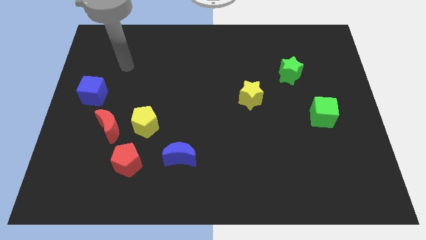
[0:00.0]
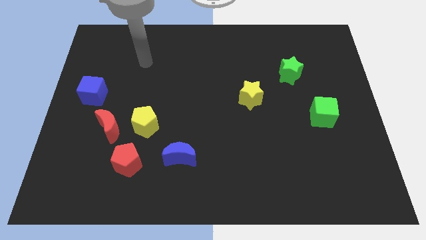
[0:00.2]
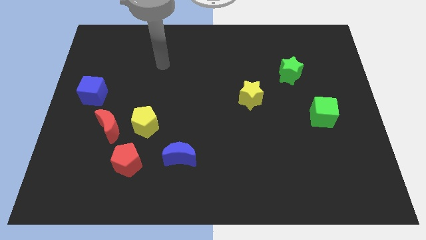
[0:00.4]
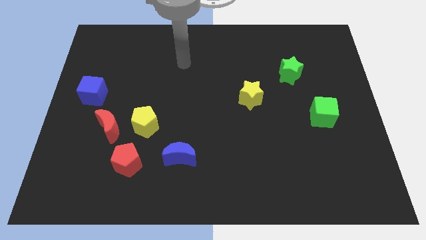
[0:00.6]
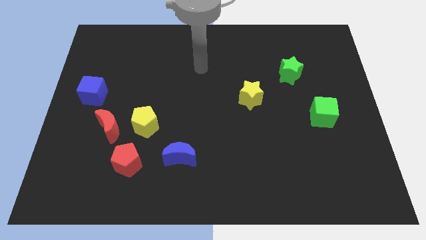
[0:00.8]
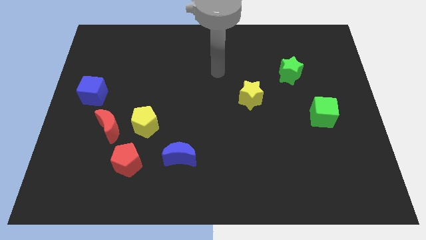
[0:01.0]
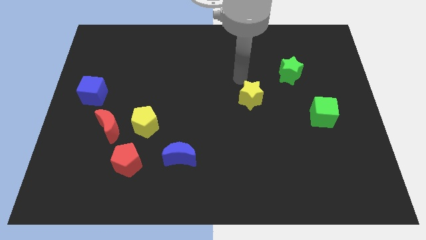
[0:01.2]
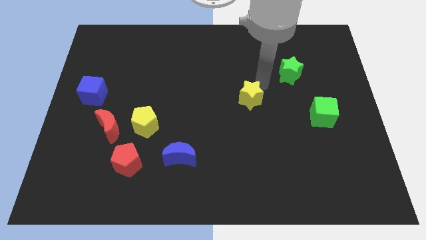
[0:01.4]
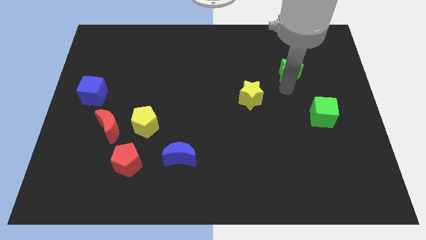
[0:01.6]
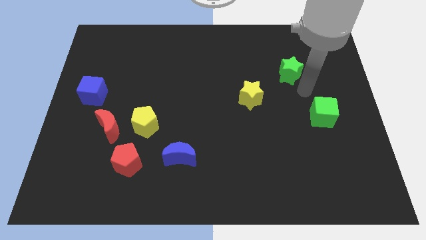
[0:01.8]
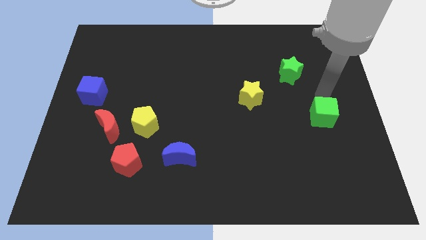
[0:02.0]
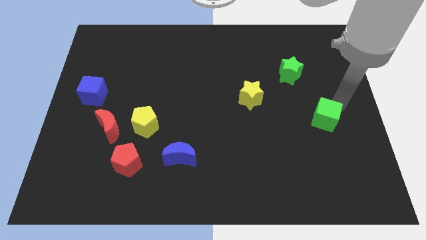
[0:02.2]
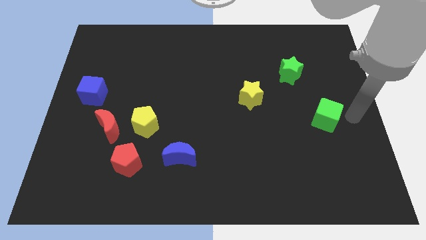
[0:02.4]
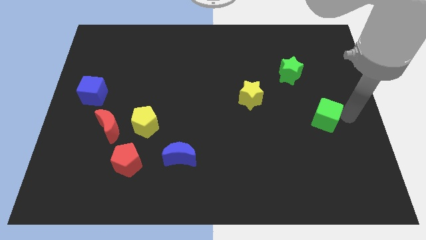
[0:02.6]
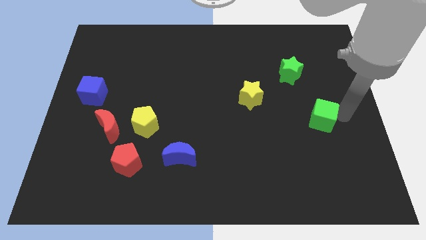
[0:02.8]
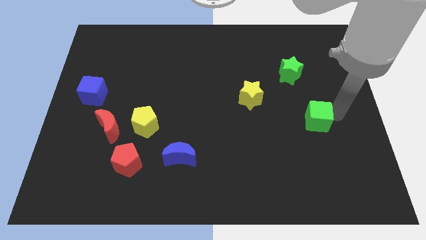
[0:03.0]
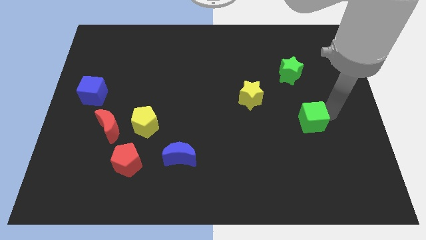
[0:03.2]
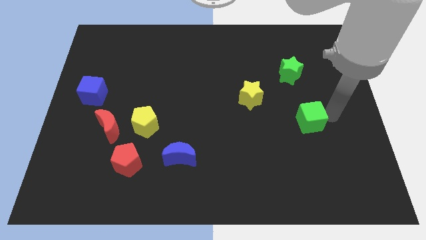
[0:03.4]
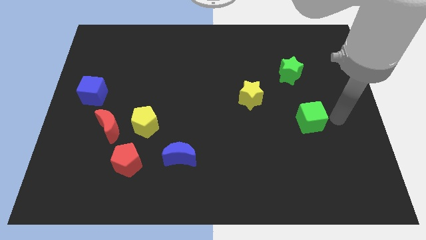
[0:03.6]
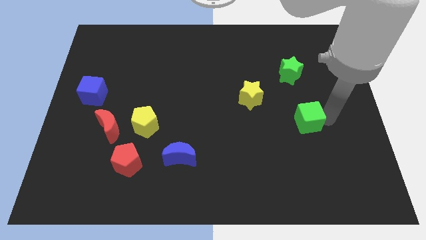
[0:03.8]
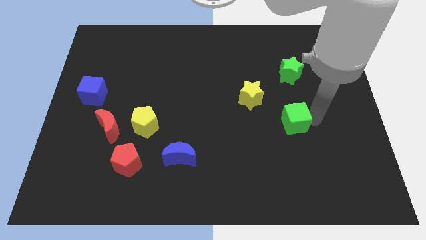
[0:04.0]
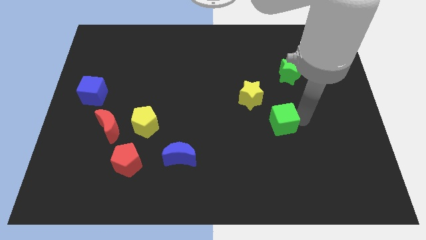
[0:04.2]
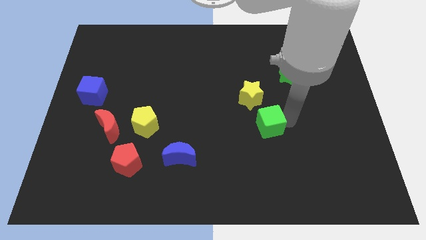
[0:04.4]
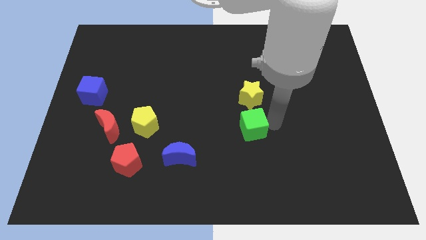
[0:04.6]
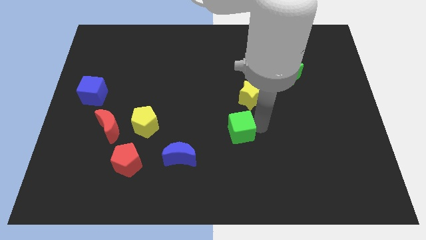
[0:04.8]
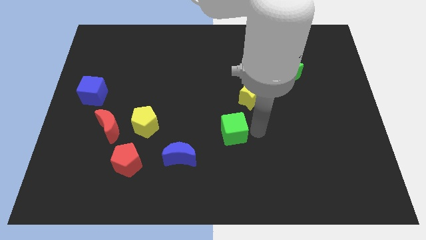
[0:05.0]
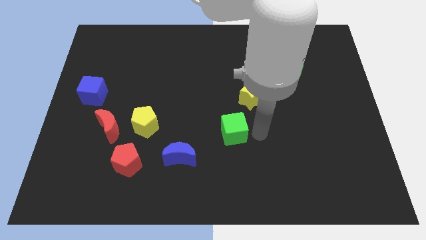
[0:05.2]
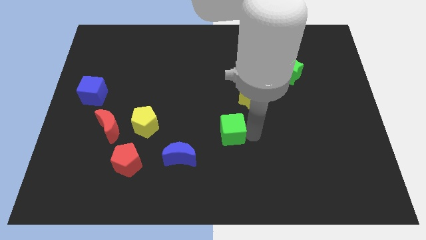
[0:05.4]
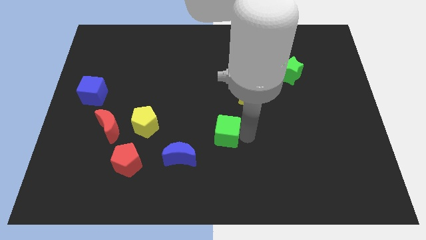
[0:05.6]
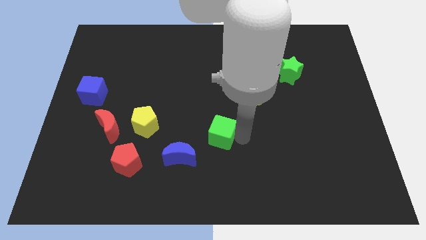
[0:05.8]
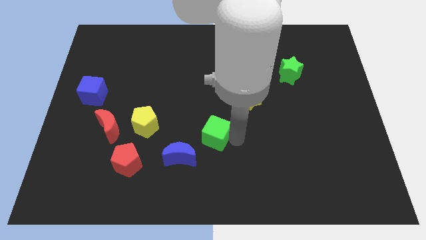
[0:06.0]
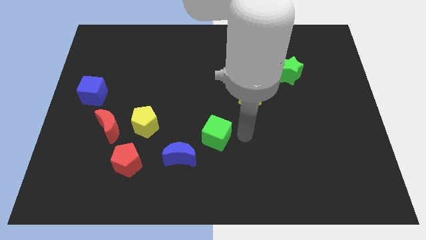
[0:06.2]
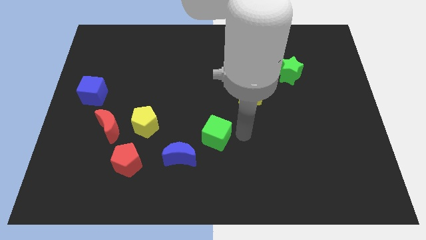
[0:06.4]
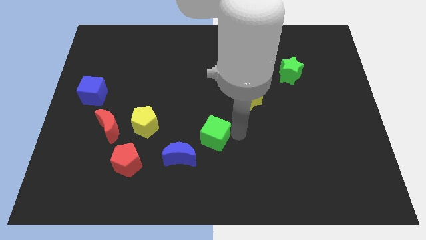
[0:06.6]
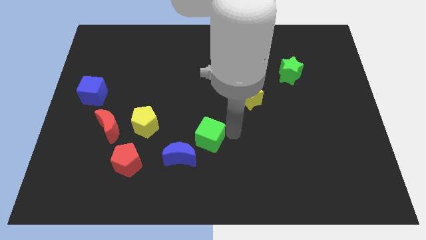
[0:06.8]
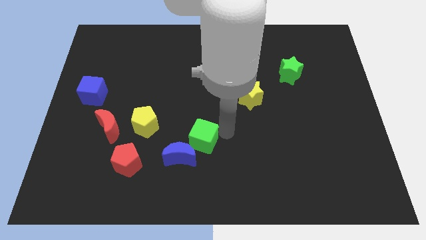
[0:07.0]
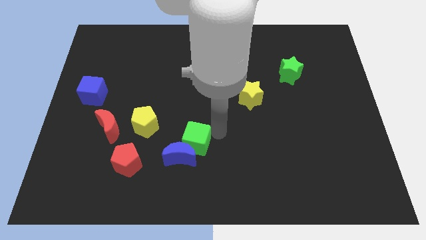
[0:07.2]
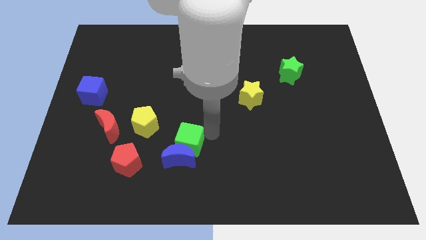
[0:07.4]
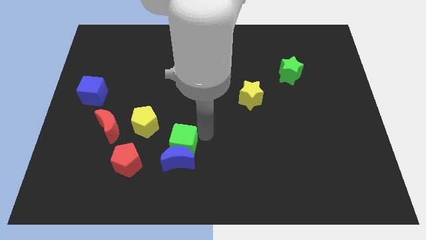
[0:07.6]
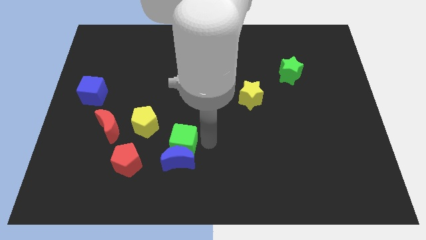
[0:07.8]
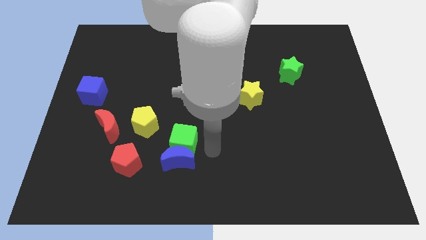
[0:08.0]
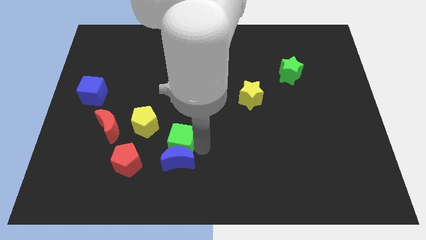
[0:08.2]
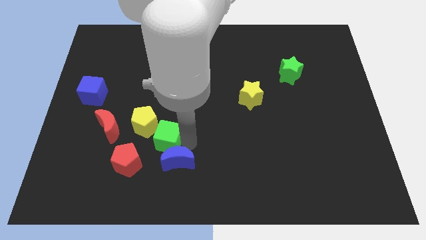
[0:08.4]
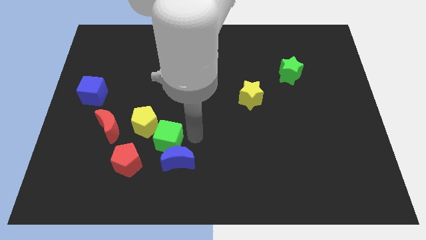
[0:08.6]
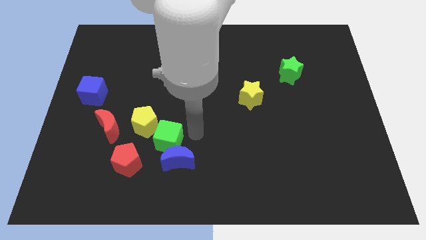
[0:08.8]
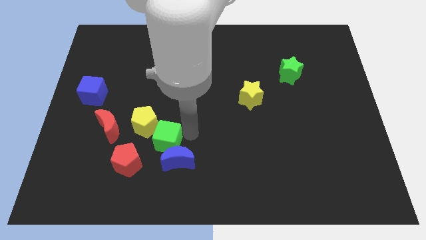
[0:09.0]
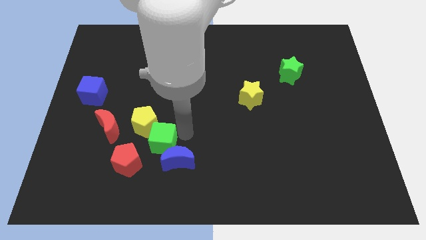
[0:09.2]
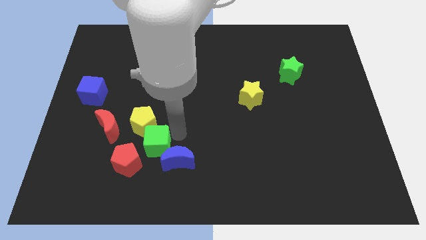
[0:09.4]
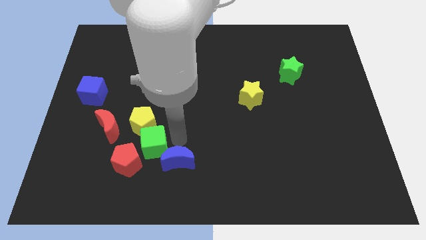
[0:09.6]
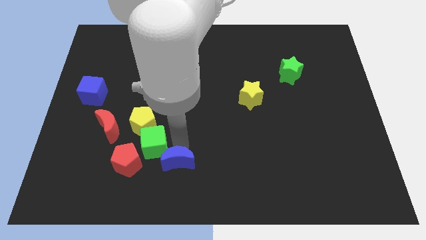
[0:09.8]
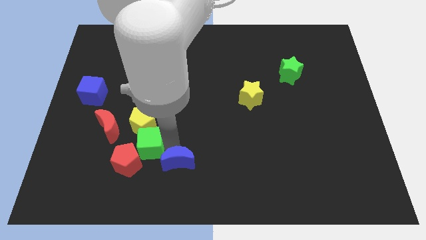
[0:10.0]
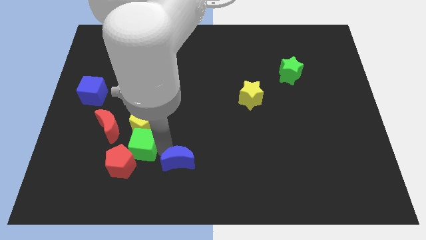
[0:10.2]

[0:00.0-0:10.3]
put the green cube to the bottom left of the yellow pentagon

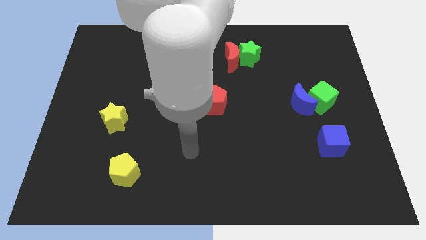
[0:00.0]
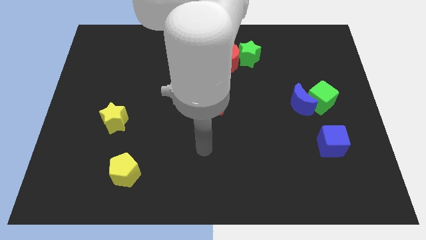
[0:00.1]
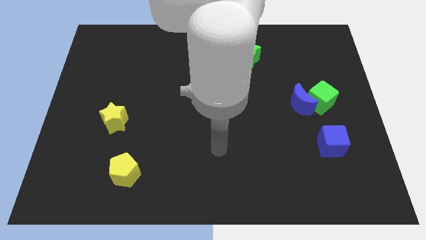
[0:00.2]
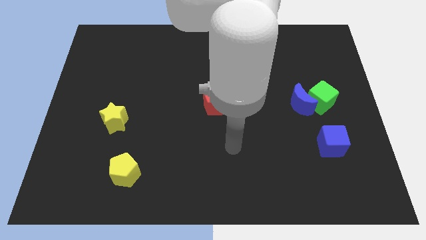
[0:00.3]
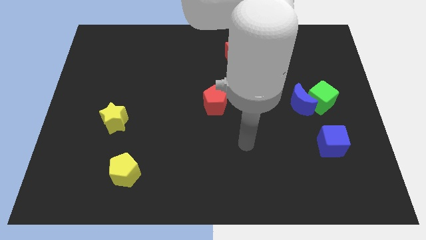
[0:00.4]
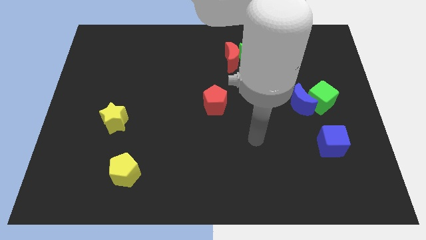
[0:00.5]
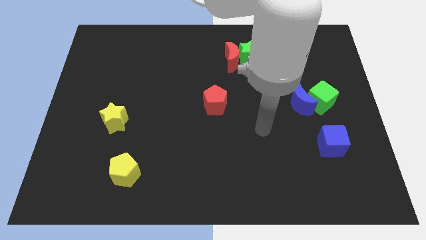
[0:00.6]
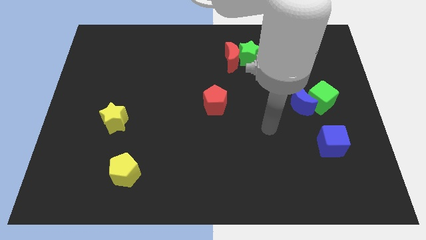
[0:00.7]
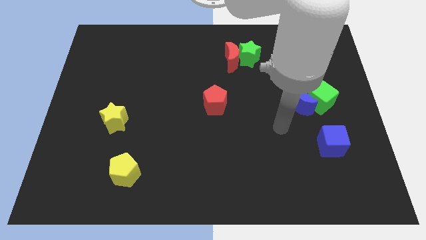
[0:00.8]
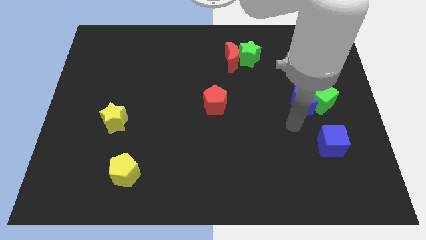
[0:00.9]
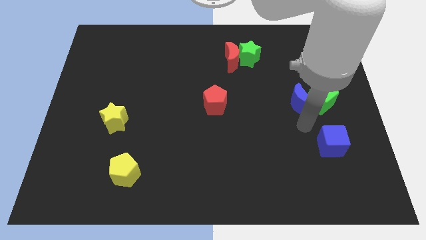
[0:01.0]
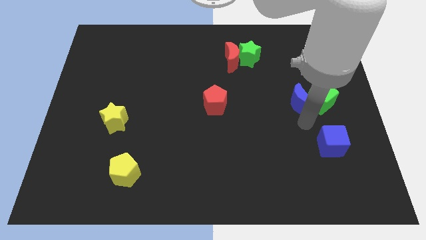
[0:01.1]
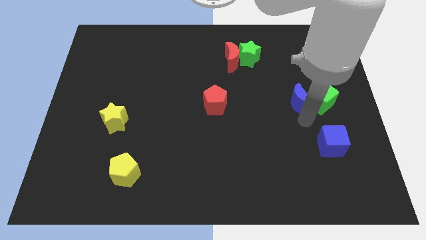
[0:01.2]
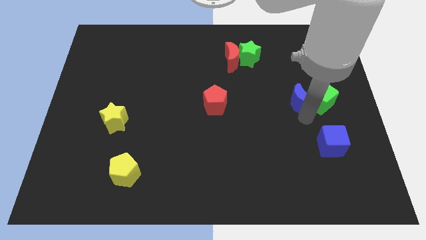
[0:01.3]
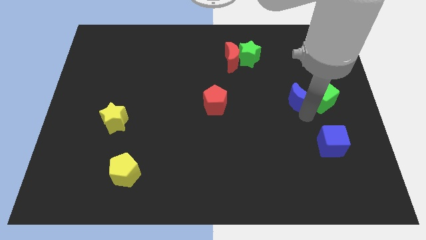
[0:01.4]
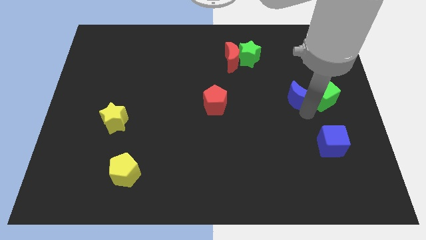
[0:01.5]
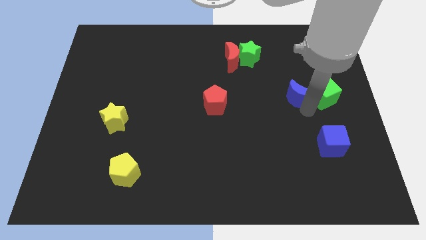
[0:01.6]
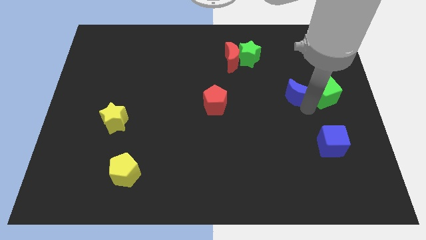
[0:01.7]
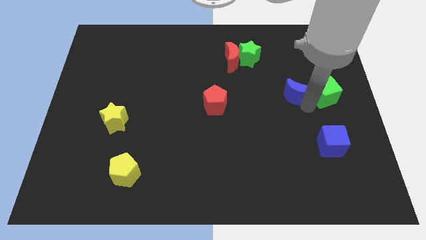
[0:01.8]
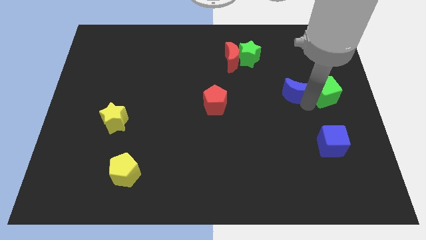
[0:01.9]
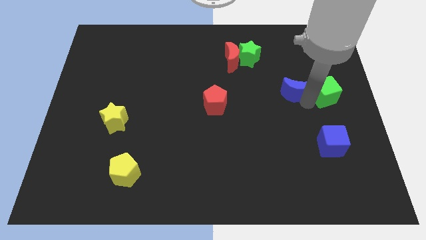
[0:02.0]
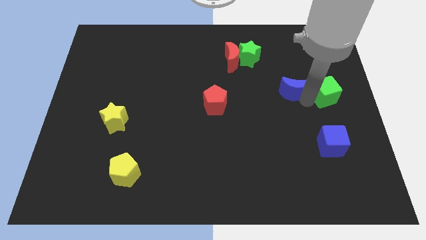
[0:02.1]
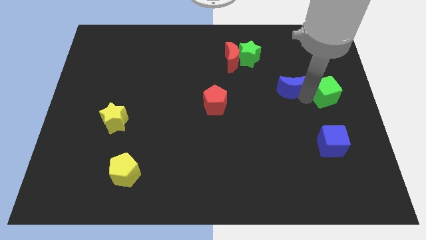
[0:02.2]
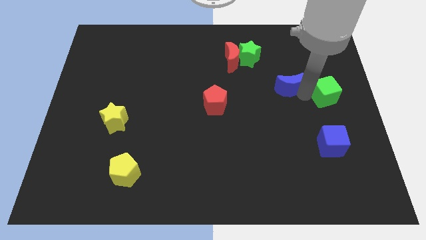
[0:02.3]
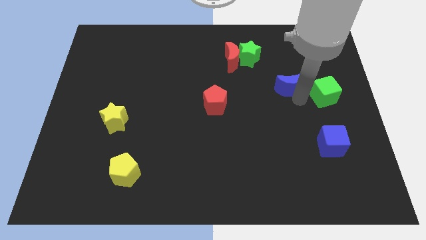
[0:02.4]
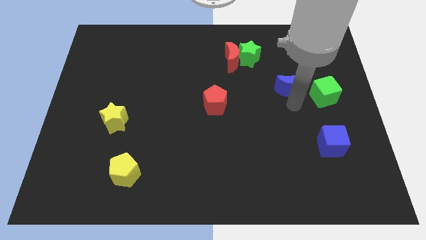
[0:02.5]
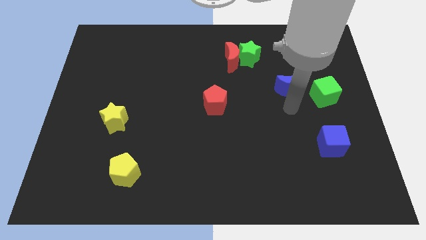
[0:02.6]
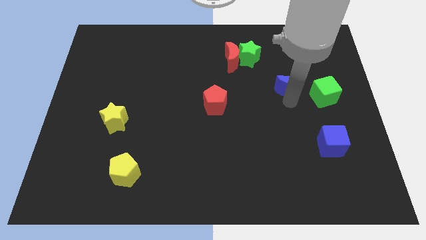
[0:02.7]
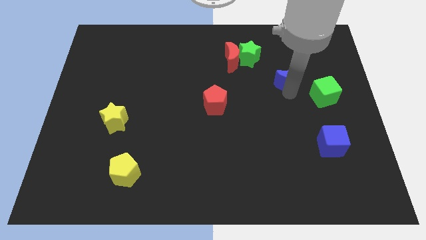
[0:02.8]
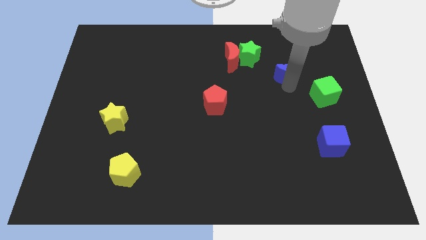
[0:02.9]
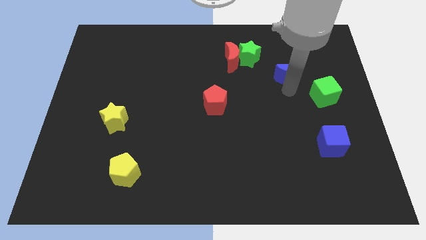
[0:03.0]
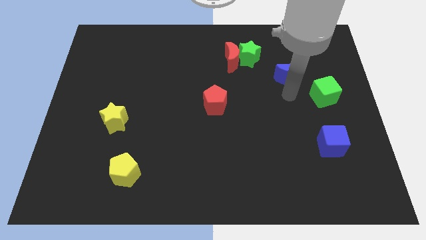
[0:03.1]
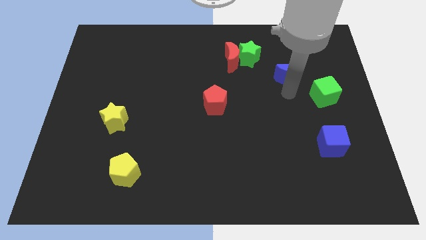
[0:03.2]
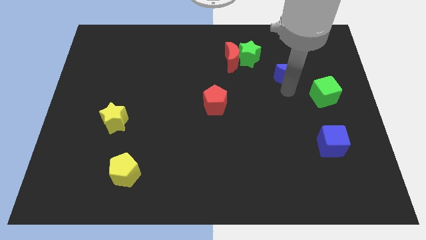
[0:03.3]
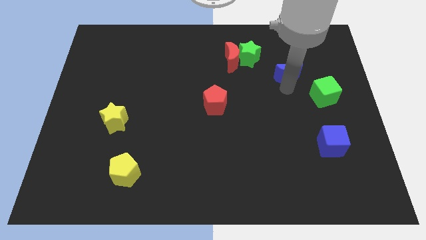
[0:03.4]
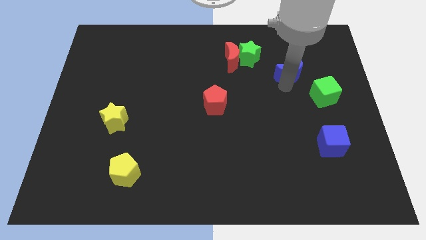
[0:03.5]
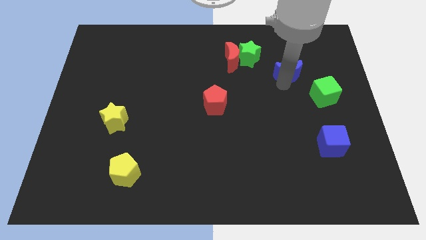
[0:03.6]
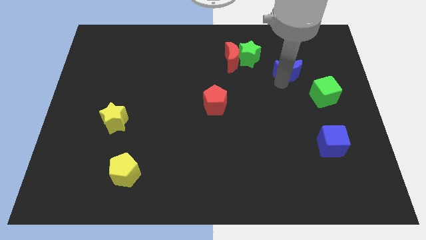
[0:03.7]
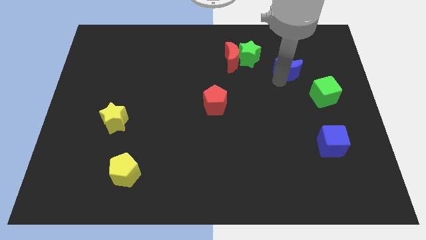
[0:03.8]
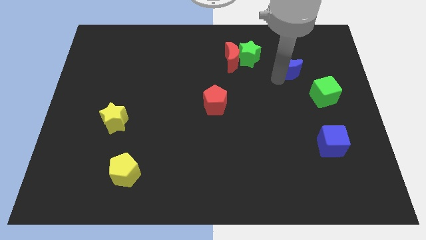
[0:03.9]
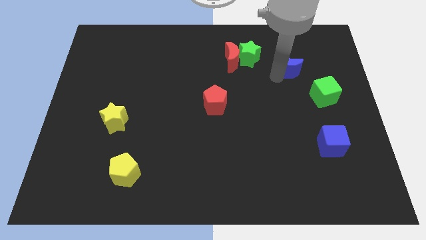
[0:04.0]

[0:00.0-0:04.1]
push the blue moon right of the green star
